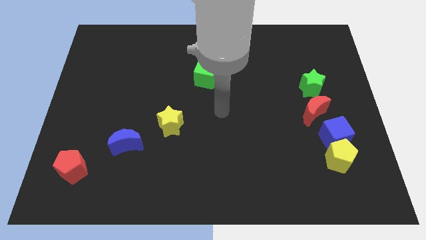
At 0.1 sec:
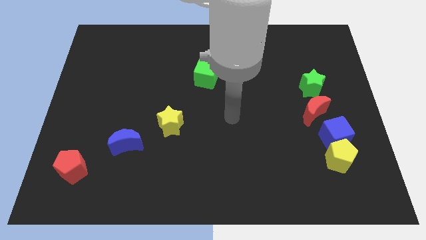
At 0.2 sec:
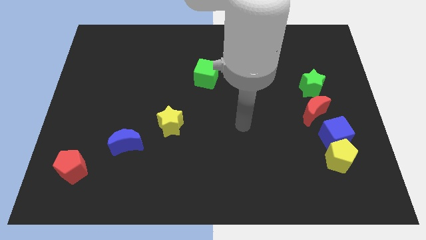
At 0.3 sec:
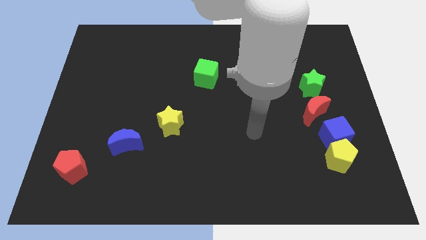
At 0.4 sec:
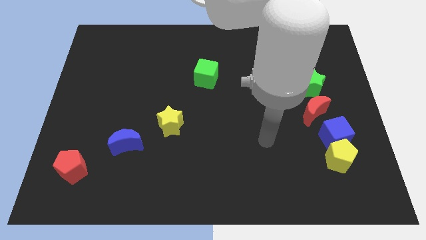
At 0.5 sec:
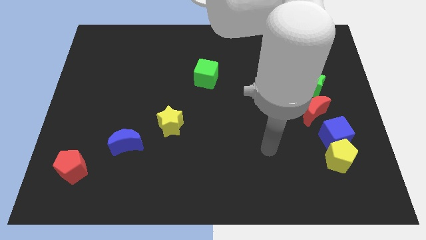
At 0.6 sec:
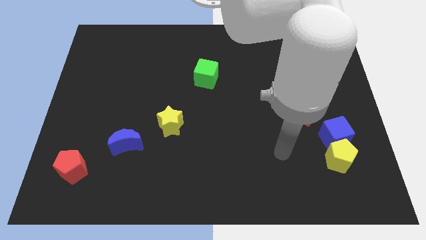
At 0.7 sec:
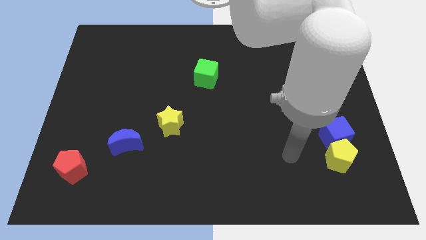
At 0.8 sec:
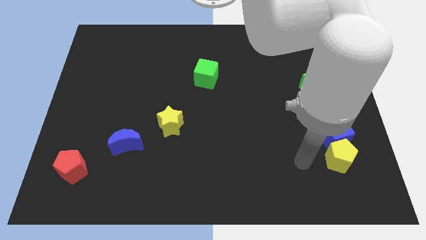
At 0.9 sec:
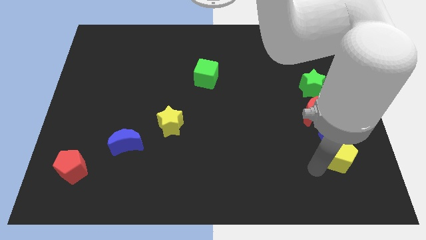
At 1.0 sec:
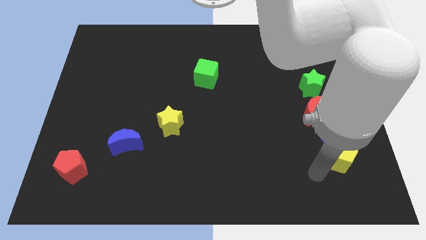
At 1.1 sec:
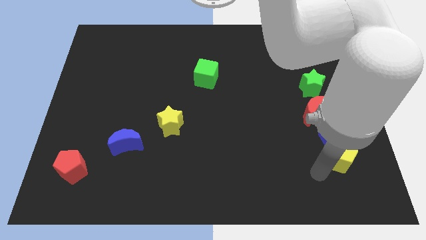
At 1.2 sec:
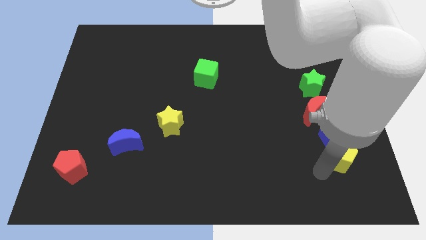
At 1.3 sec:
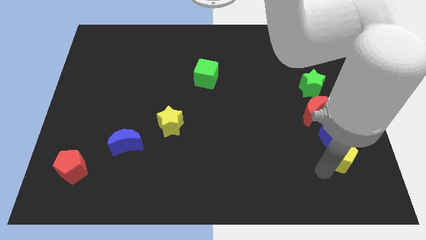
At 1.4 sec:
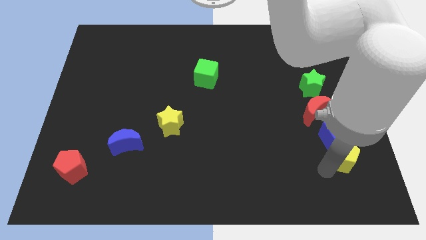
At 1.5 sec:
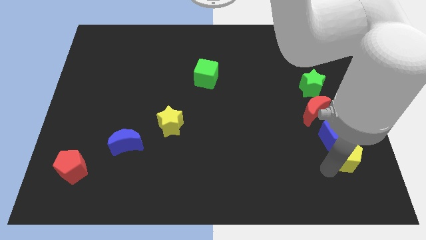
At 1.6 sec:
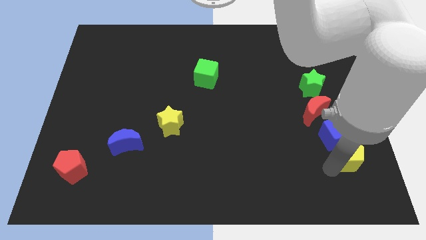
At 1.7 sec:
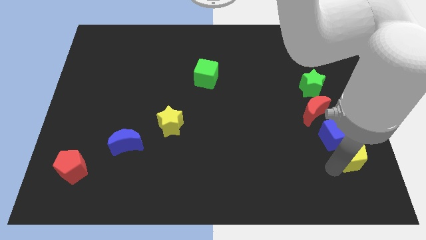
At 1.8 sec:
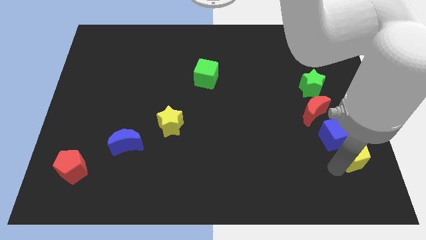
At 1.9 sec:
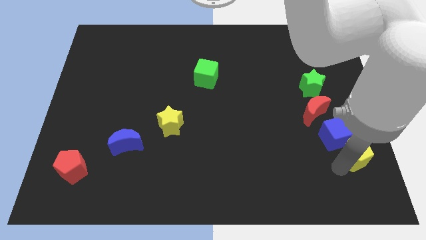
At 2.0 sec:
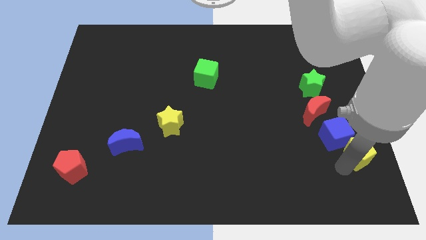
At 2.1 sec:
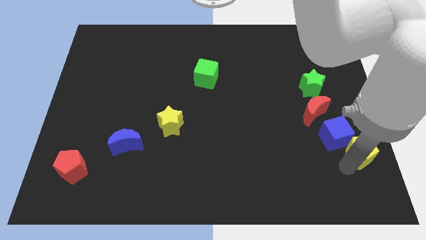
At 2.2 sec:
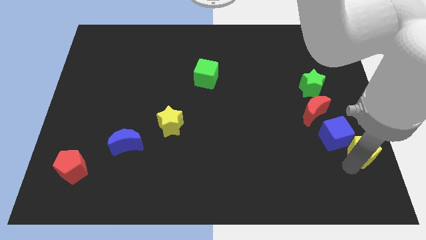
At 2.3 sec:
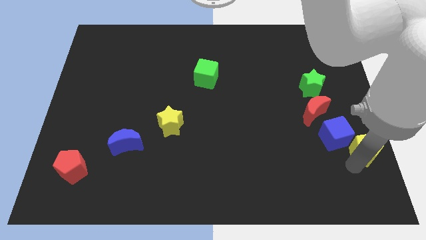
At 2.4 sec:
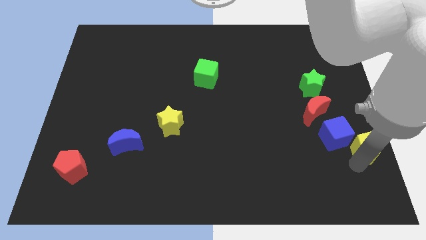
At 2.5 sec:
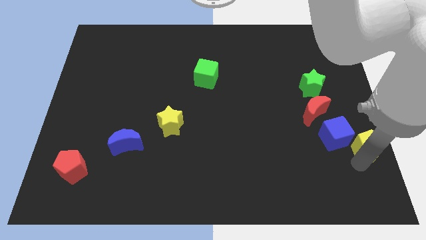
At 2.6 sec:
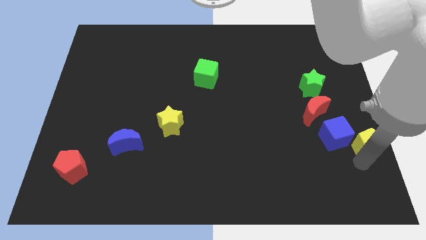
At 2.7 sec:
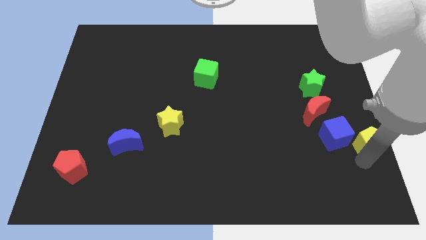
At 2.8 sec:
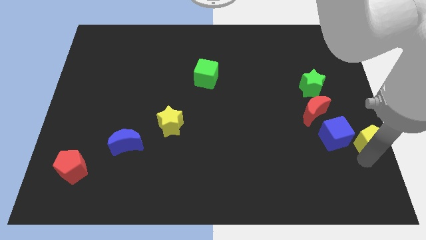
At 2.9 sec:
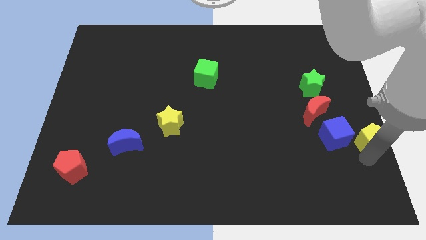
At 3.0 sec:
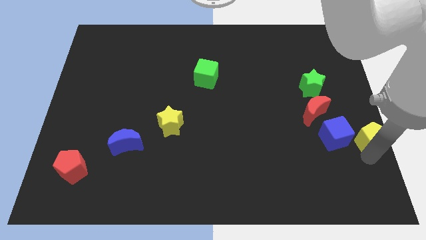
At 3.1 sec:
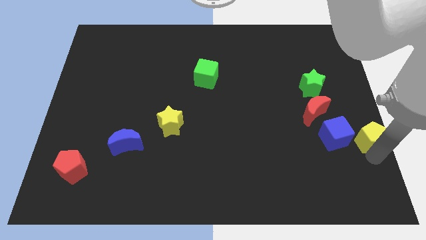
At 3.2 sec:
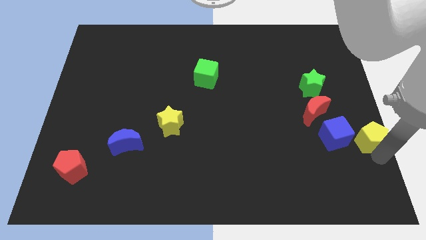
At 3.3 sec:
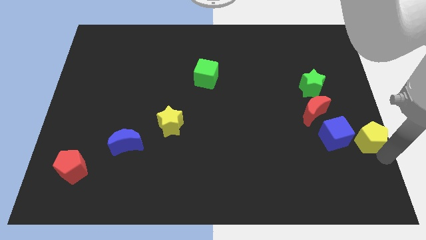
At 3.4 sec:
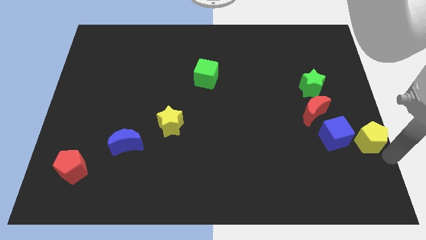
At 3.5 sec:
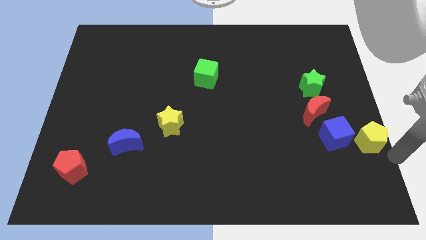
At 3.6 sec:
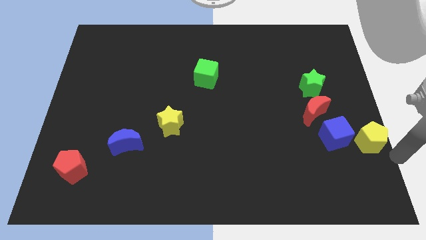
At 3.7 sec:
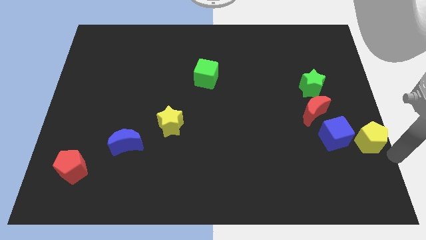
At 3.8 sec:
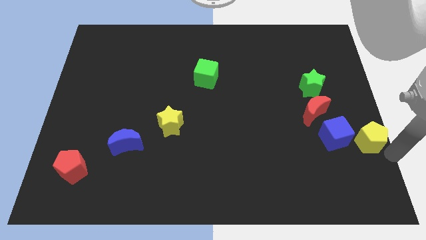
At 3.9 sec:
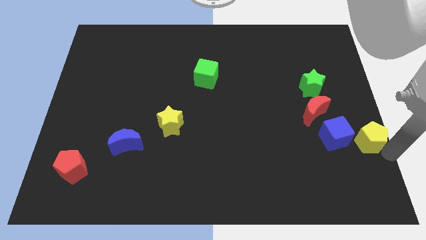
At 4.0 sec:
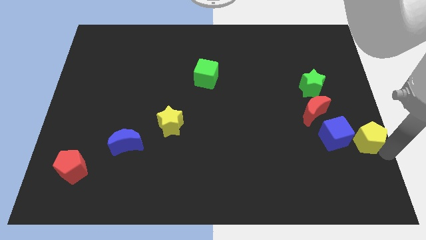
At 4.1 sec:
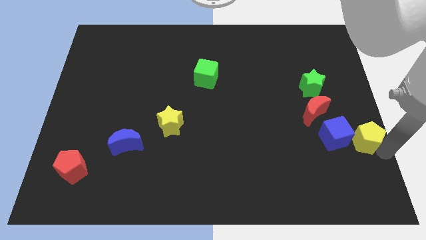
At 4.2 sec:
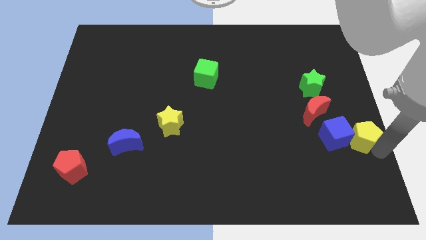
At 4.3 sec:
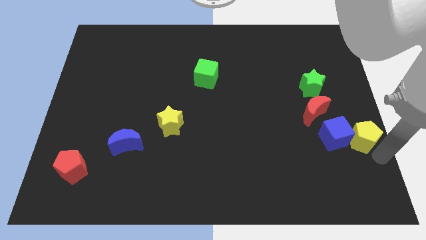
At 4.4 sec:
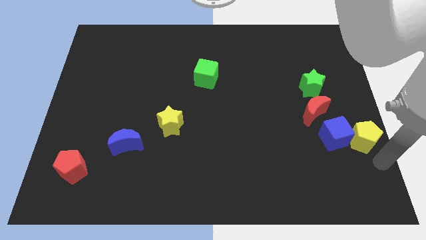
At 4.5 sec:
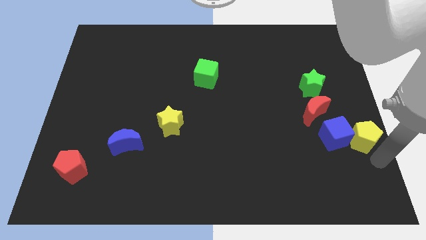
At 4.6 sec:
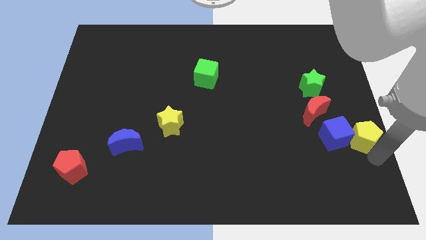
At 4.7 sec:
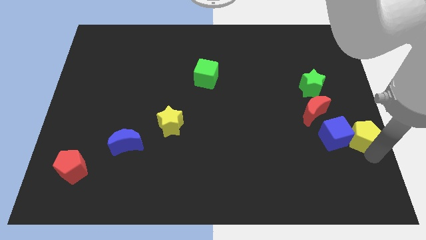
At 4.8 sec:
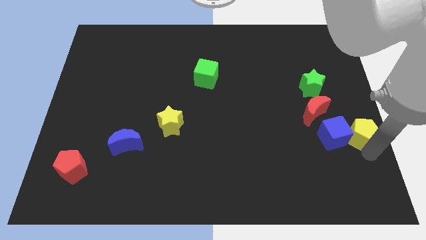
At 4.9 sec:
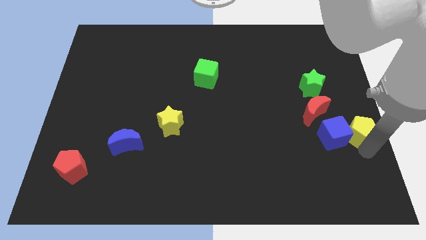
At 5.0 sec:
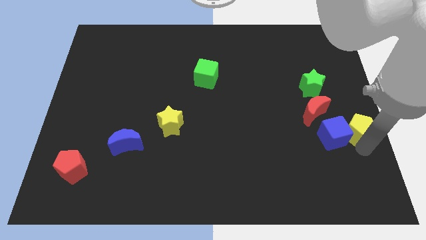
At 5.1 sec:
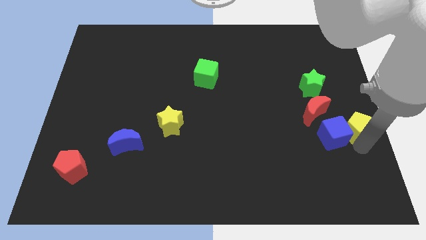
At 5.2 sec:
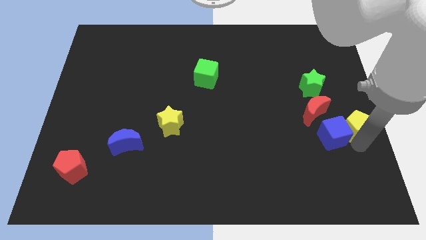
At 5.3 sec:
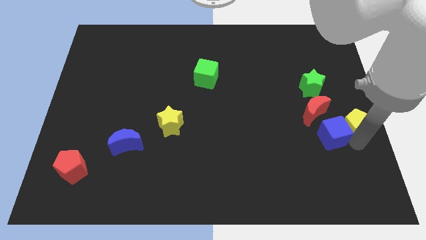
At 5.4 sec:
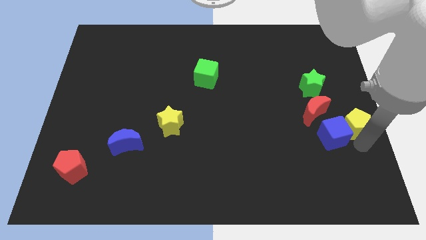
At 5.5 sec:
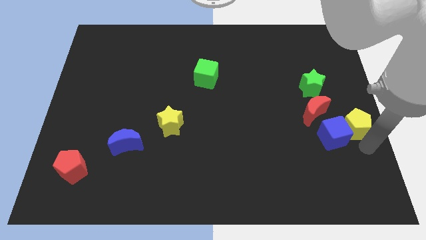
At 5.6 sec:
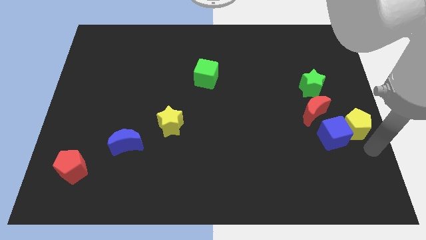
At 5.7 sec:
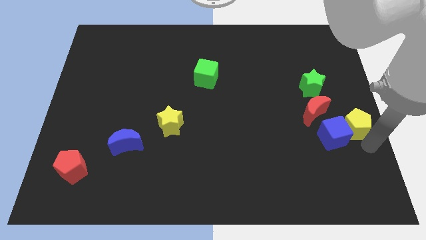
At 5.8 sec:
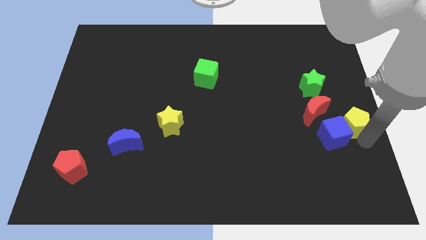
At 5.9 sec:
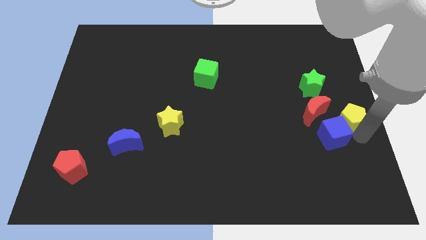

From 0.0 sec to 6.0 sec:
slide the yellow pentagon above the blue cube

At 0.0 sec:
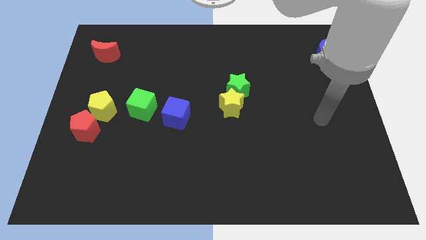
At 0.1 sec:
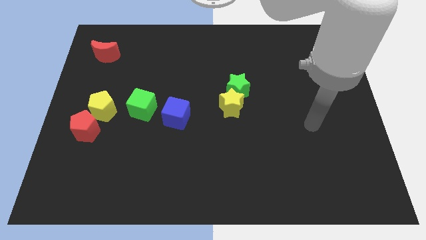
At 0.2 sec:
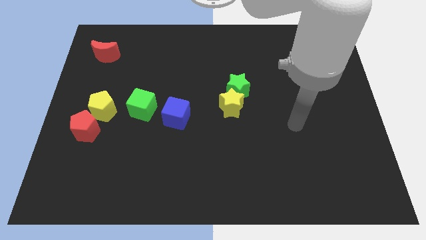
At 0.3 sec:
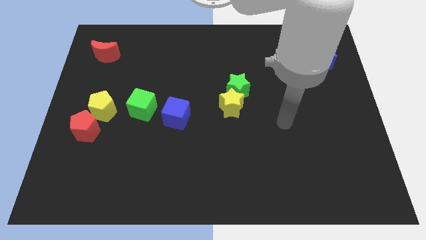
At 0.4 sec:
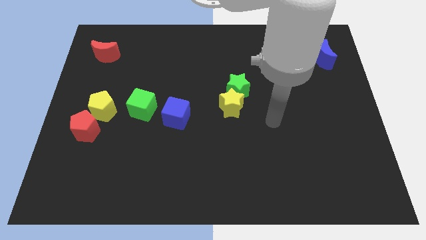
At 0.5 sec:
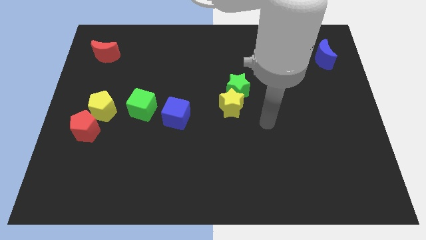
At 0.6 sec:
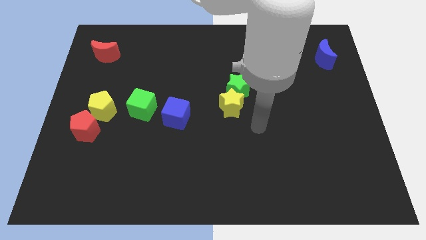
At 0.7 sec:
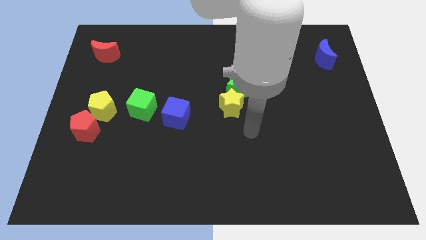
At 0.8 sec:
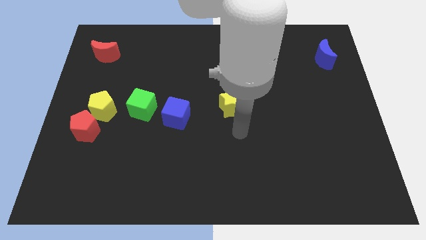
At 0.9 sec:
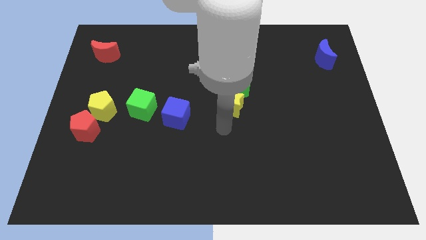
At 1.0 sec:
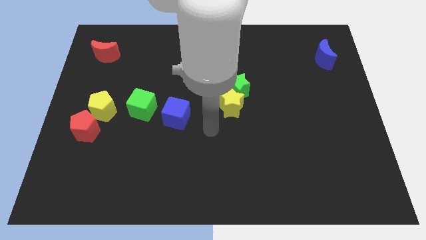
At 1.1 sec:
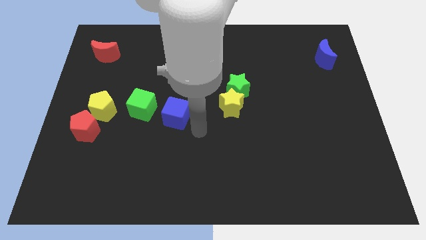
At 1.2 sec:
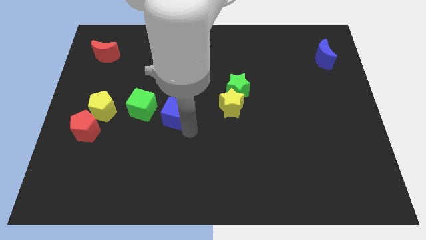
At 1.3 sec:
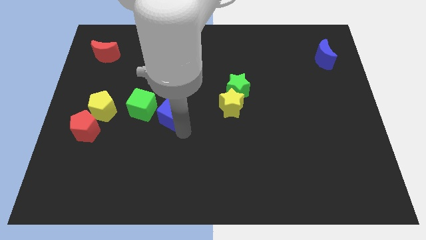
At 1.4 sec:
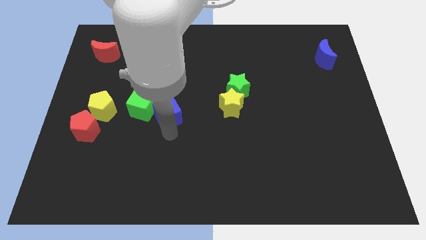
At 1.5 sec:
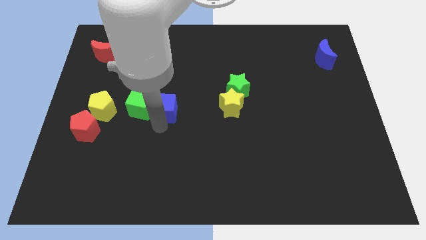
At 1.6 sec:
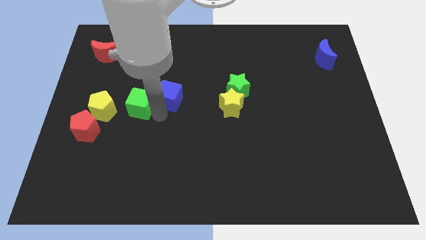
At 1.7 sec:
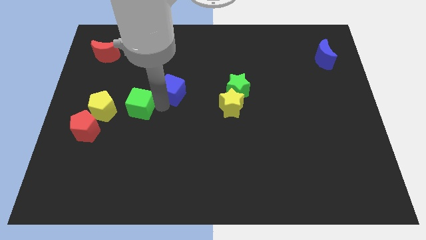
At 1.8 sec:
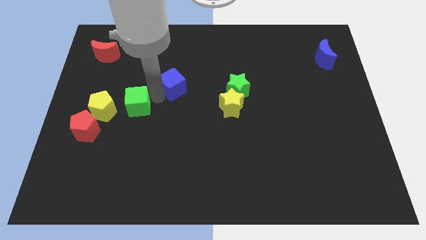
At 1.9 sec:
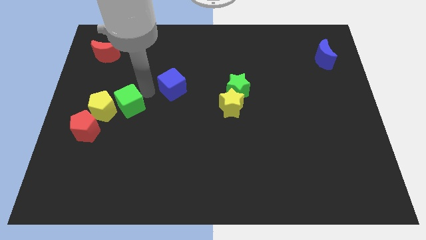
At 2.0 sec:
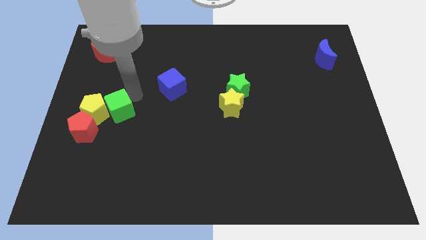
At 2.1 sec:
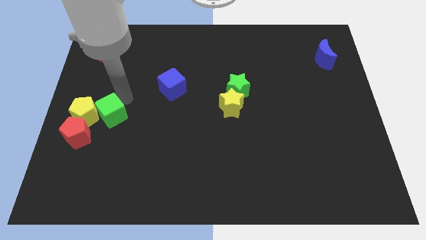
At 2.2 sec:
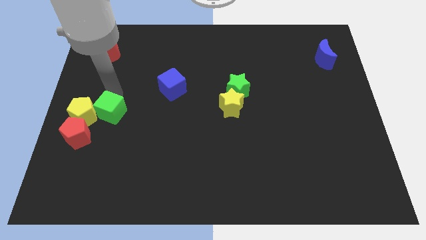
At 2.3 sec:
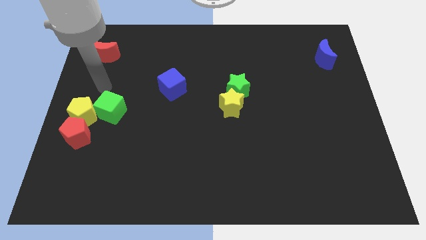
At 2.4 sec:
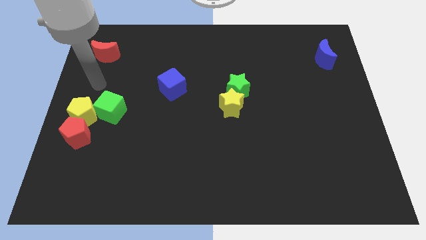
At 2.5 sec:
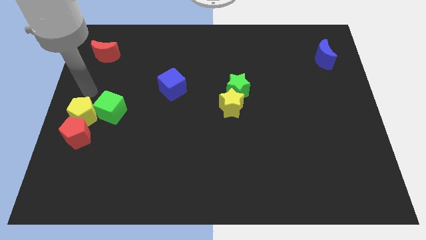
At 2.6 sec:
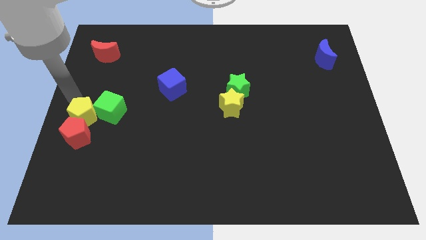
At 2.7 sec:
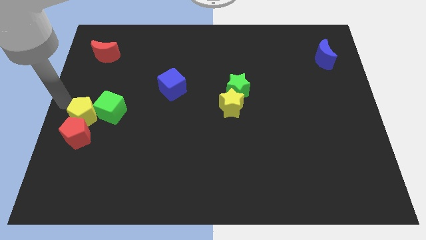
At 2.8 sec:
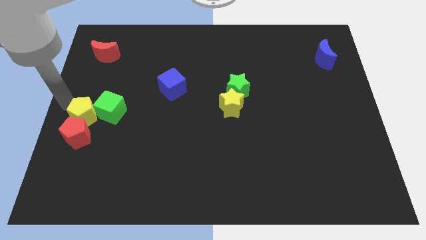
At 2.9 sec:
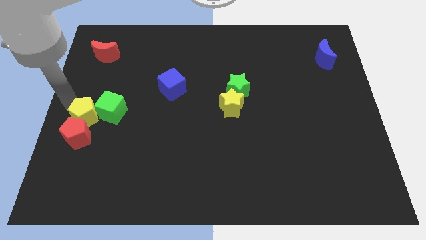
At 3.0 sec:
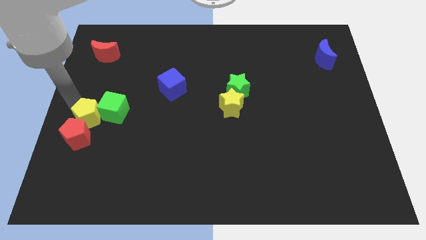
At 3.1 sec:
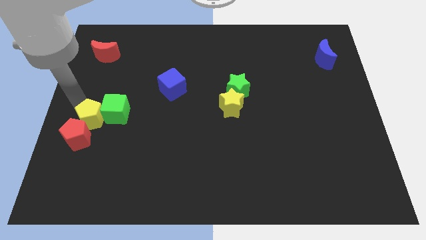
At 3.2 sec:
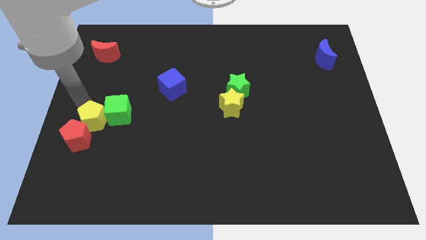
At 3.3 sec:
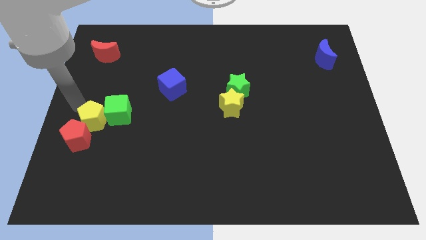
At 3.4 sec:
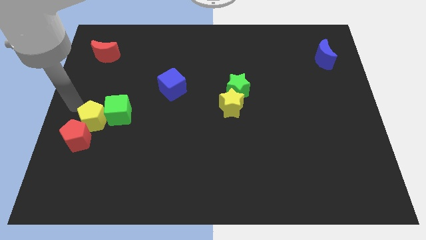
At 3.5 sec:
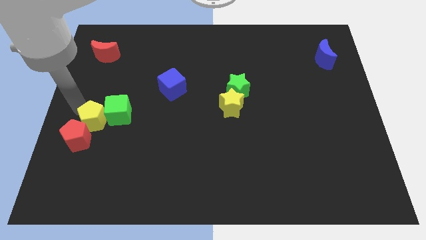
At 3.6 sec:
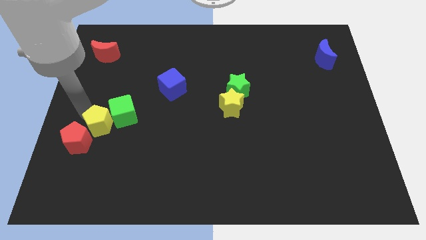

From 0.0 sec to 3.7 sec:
slide the yellow pentagon to the right side of the red pentagon
